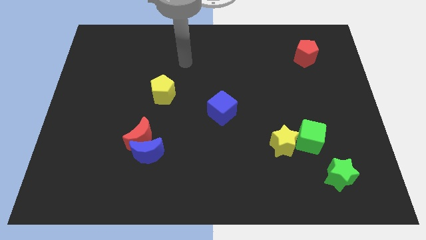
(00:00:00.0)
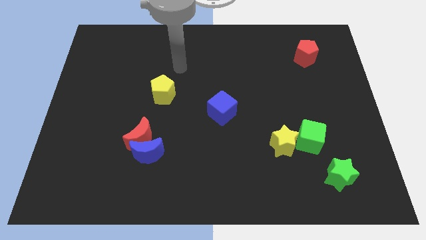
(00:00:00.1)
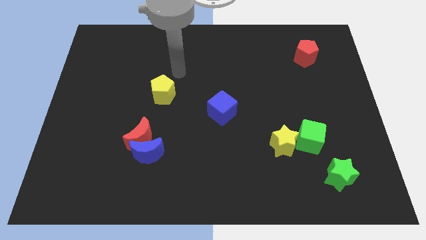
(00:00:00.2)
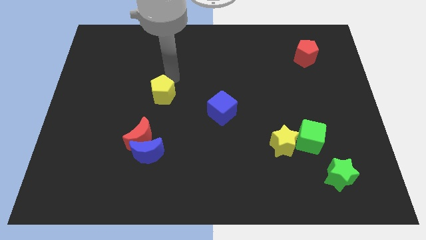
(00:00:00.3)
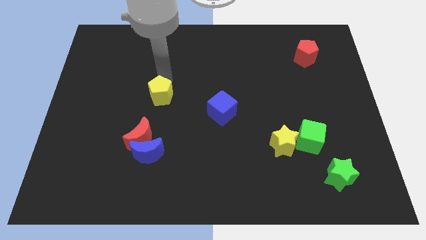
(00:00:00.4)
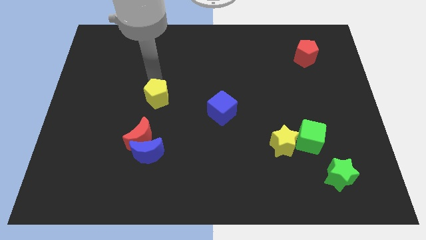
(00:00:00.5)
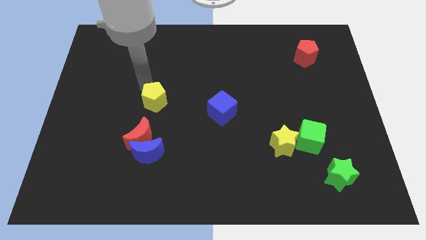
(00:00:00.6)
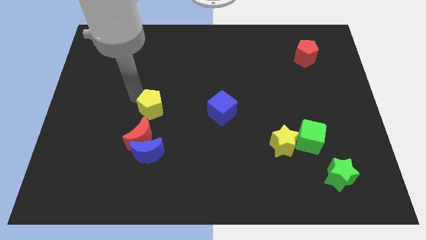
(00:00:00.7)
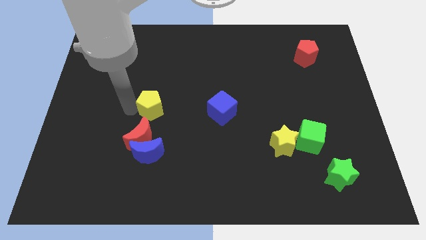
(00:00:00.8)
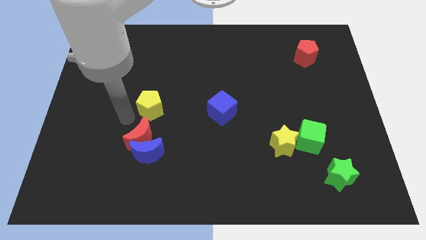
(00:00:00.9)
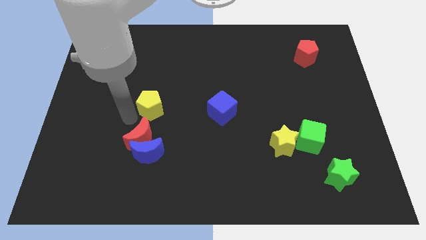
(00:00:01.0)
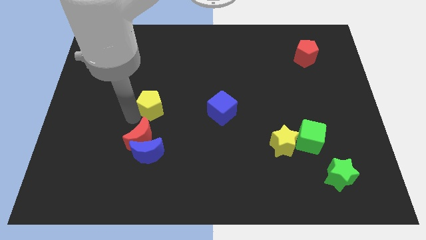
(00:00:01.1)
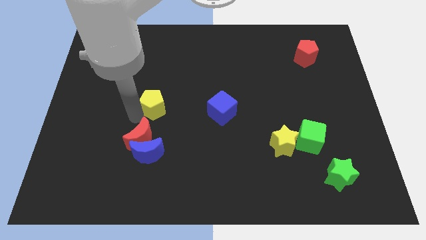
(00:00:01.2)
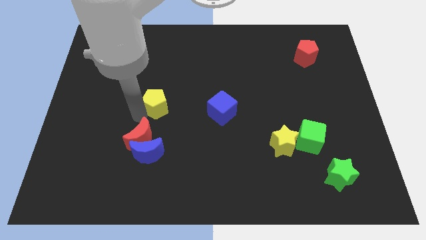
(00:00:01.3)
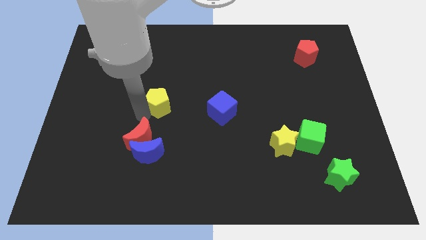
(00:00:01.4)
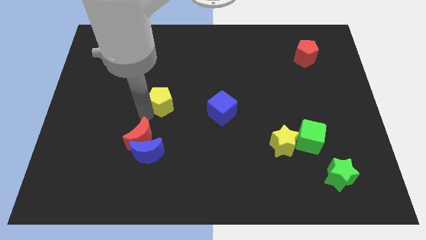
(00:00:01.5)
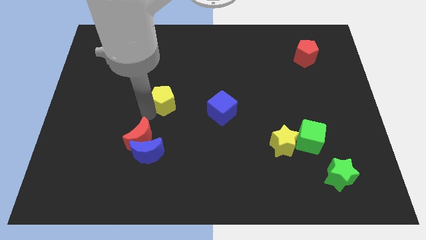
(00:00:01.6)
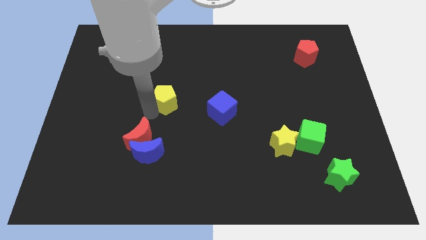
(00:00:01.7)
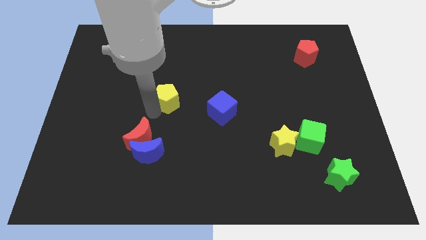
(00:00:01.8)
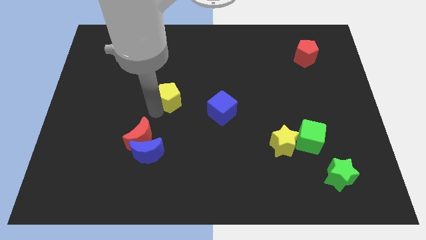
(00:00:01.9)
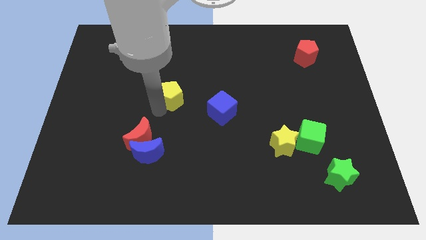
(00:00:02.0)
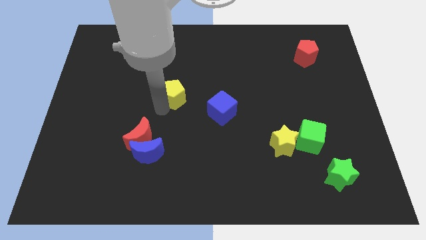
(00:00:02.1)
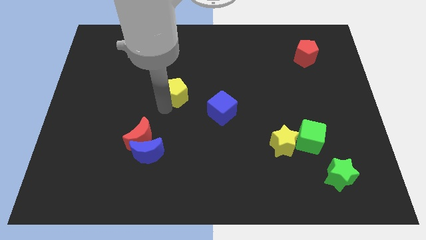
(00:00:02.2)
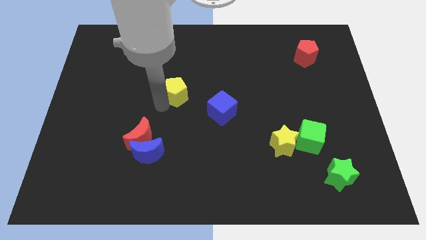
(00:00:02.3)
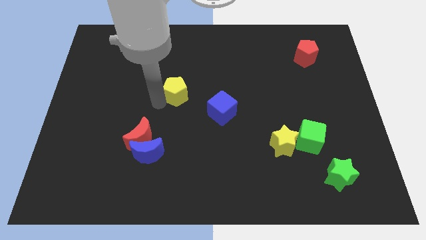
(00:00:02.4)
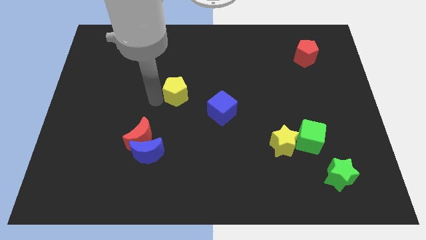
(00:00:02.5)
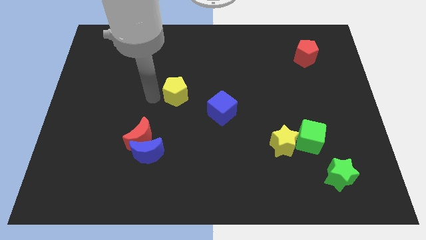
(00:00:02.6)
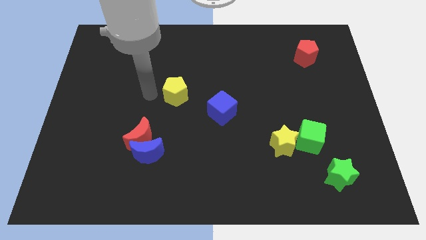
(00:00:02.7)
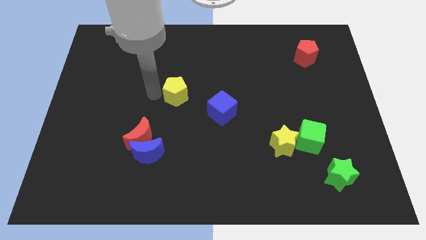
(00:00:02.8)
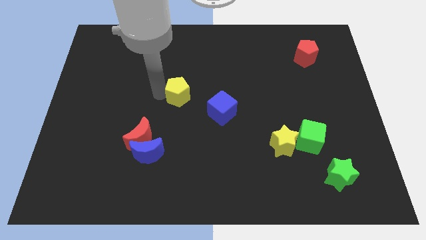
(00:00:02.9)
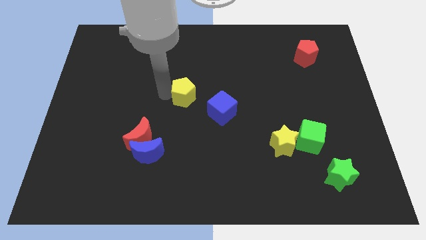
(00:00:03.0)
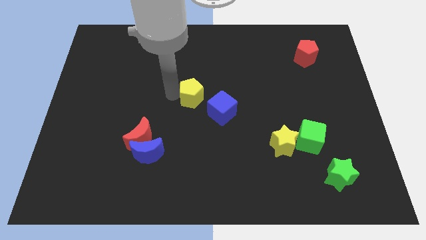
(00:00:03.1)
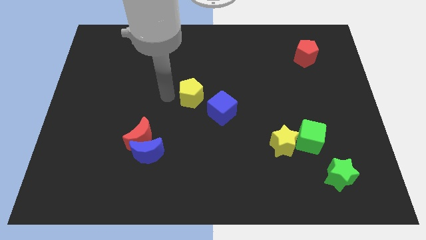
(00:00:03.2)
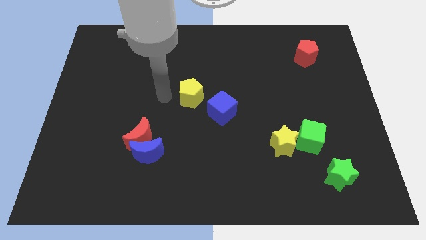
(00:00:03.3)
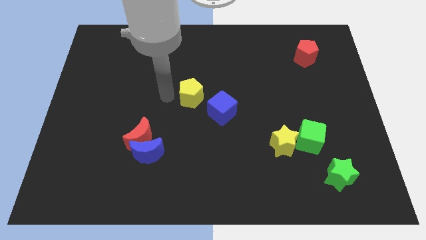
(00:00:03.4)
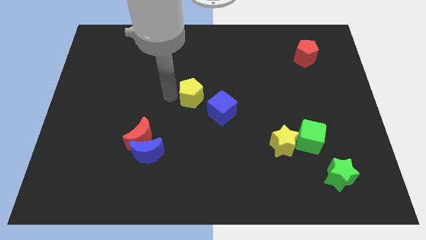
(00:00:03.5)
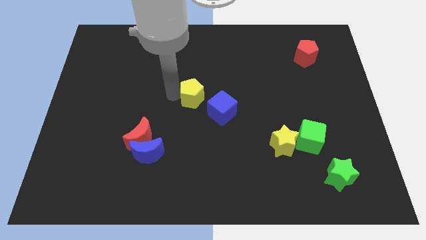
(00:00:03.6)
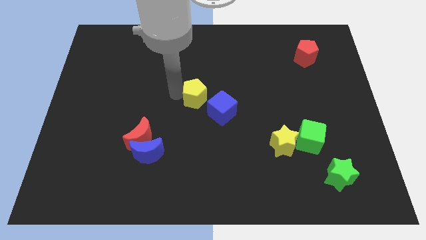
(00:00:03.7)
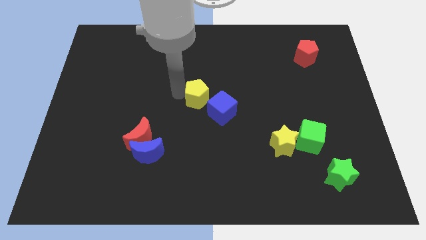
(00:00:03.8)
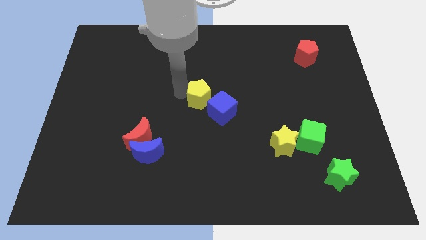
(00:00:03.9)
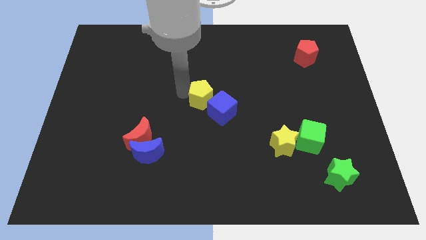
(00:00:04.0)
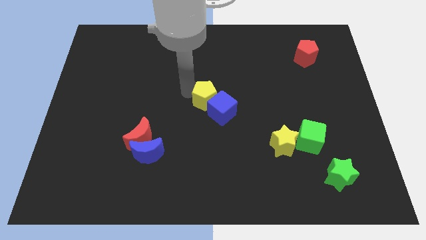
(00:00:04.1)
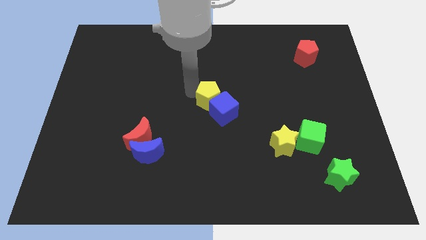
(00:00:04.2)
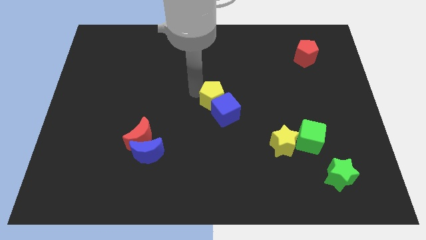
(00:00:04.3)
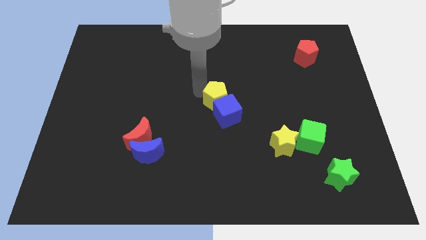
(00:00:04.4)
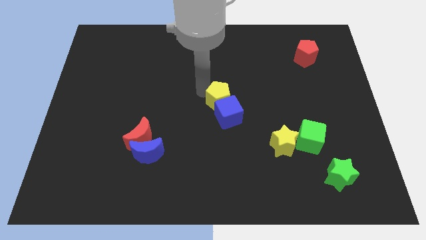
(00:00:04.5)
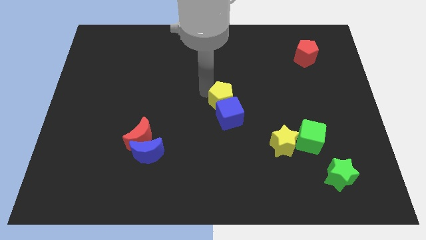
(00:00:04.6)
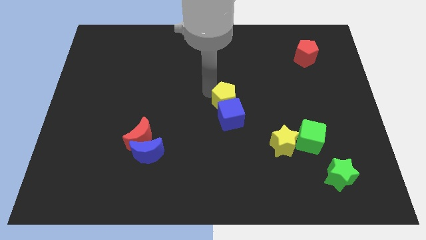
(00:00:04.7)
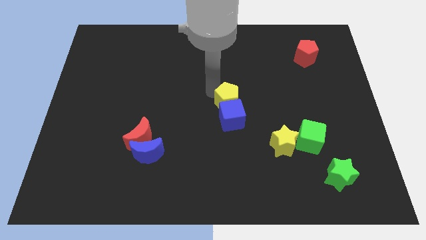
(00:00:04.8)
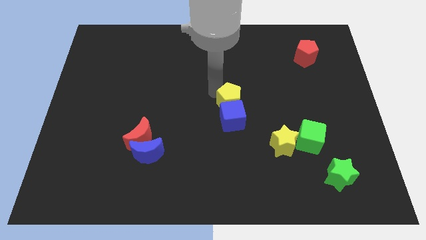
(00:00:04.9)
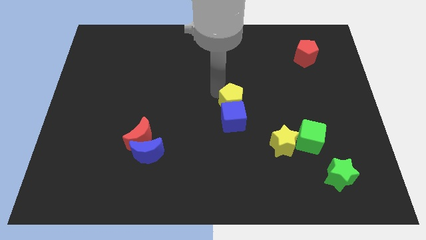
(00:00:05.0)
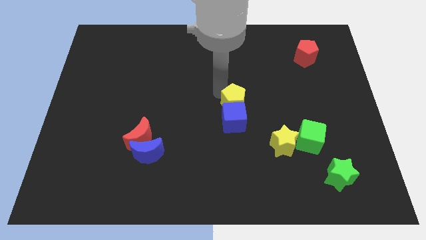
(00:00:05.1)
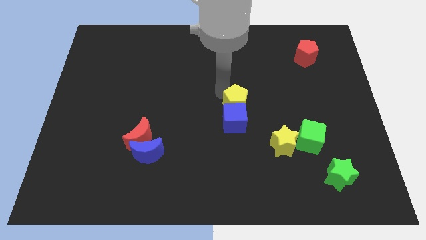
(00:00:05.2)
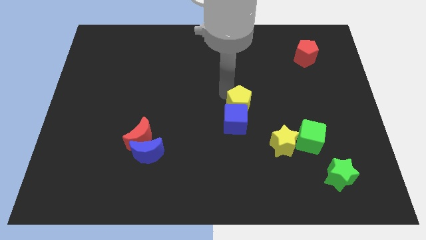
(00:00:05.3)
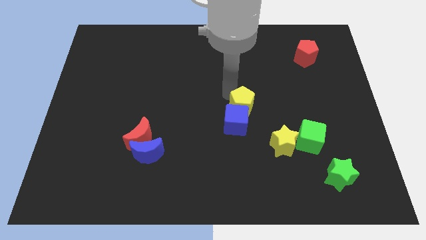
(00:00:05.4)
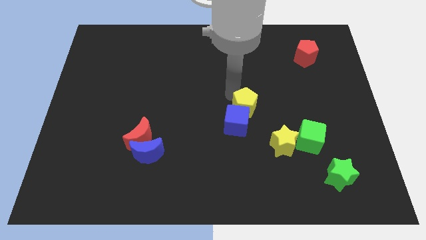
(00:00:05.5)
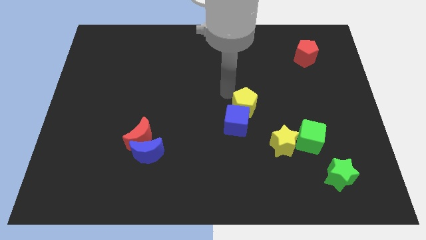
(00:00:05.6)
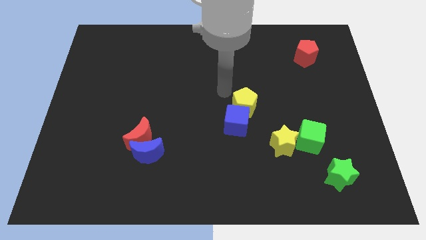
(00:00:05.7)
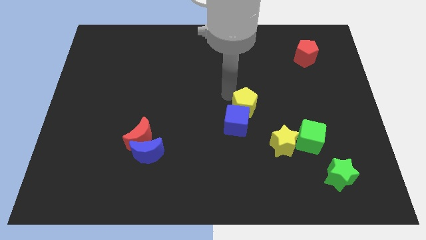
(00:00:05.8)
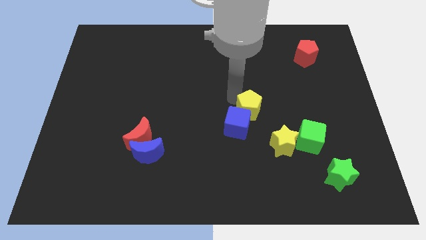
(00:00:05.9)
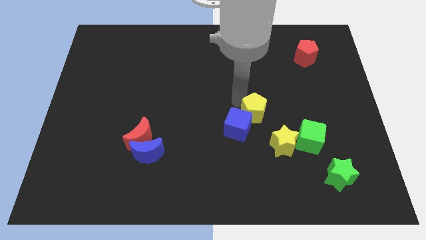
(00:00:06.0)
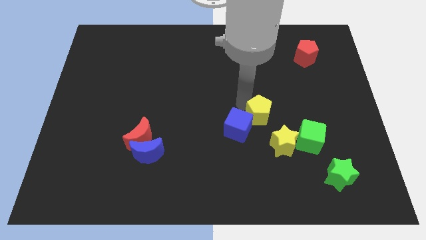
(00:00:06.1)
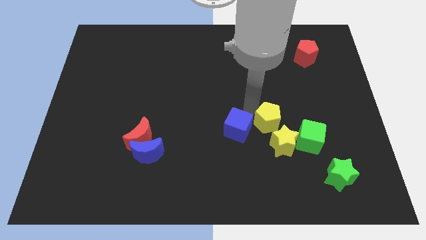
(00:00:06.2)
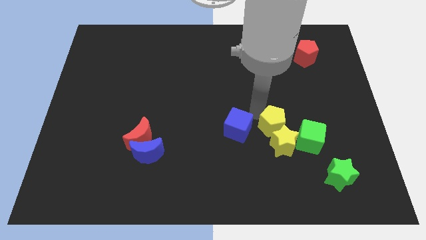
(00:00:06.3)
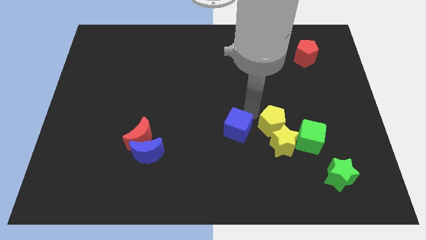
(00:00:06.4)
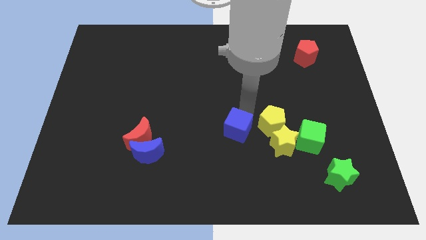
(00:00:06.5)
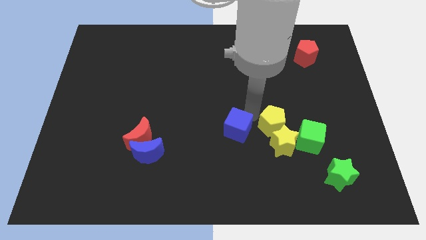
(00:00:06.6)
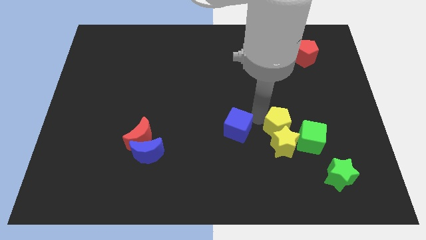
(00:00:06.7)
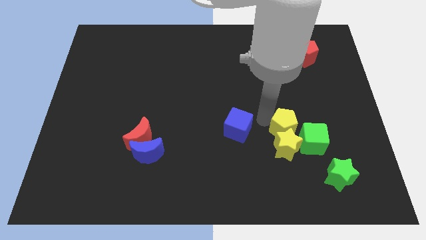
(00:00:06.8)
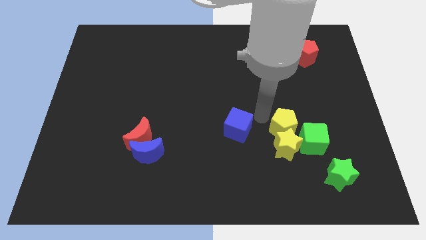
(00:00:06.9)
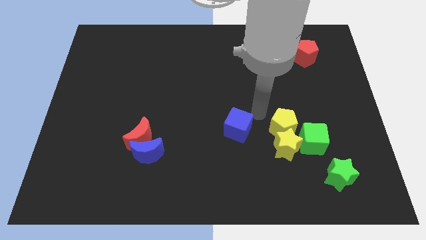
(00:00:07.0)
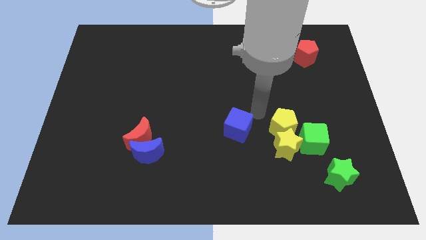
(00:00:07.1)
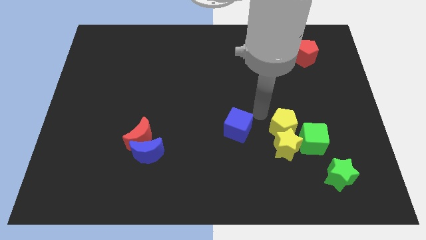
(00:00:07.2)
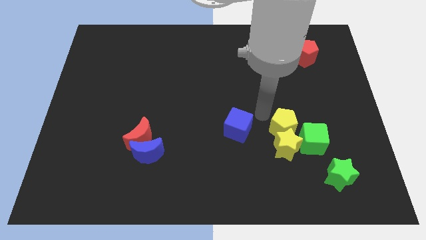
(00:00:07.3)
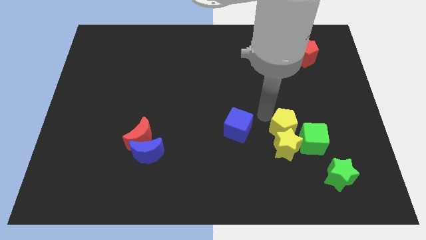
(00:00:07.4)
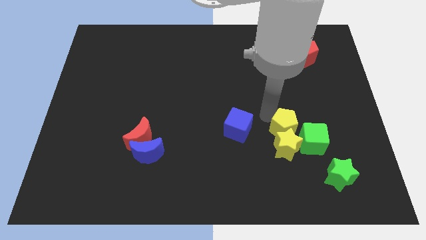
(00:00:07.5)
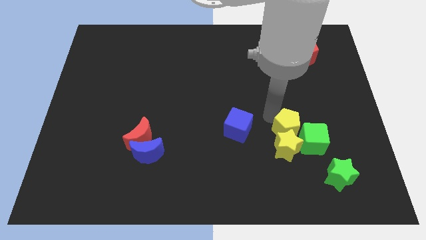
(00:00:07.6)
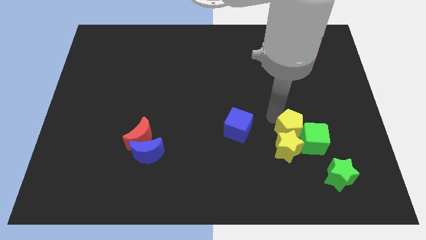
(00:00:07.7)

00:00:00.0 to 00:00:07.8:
move the yellow pentagon towards the green cube
